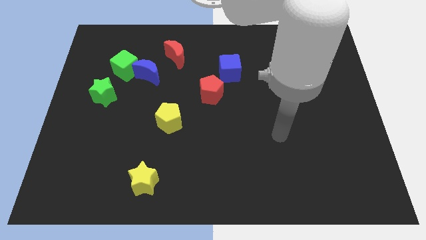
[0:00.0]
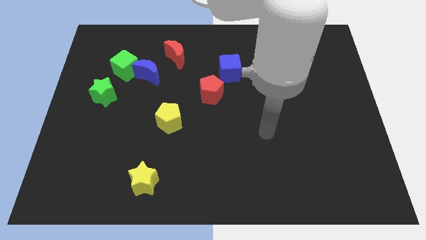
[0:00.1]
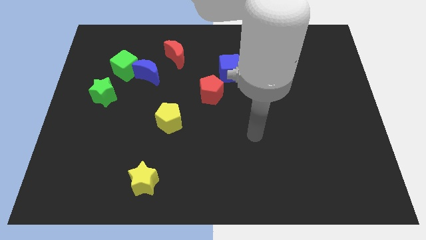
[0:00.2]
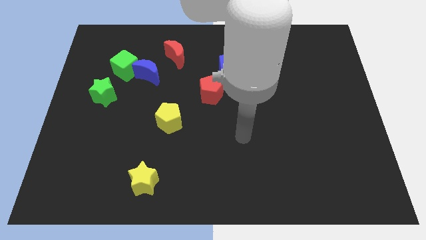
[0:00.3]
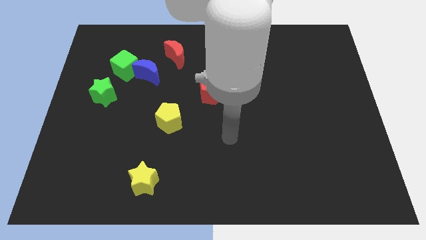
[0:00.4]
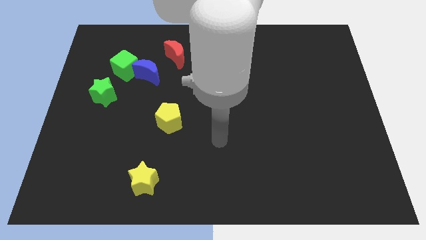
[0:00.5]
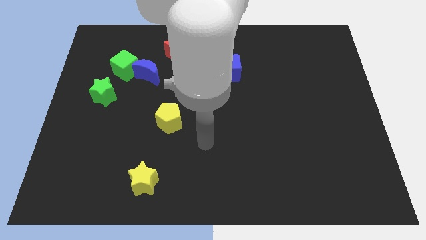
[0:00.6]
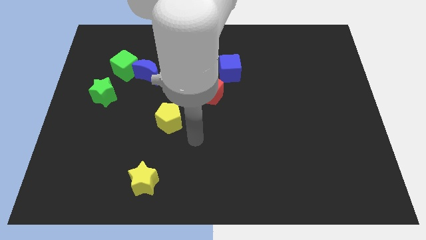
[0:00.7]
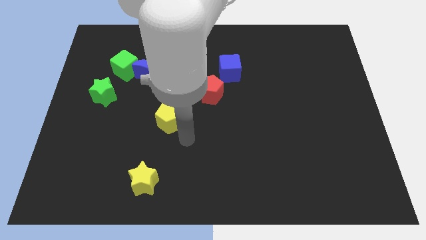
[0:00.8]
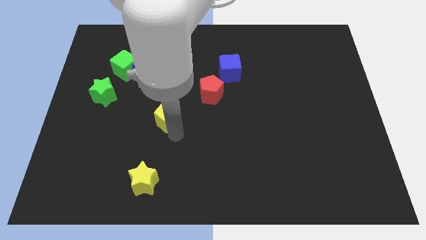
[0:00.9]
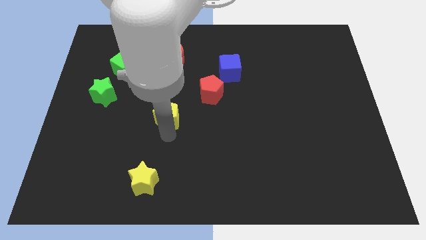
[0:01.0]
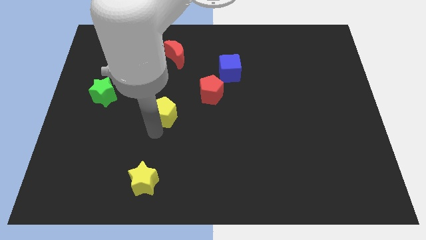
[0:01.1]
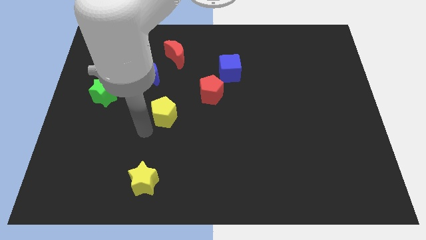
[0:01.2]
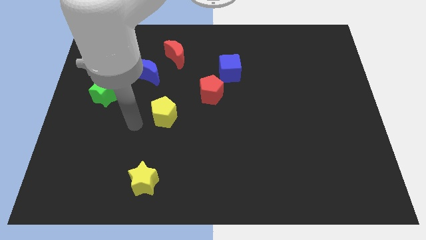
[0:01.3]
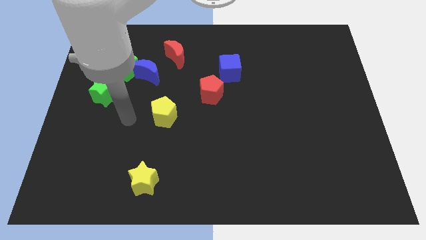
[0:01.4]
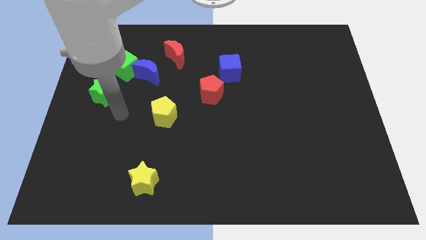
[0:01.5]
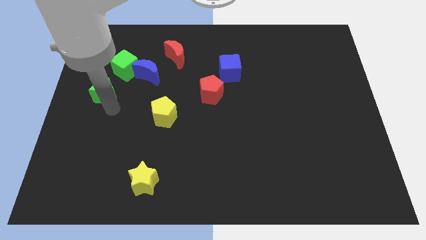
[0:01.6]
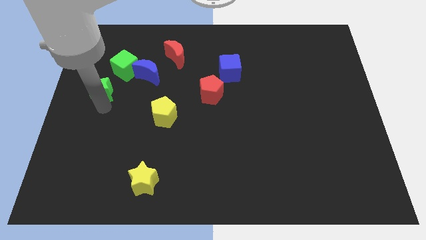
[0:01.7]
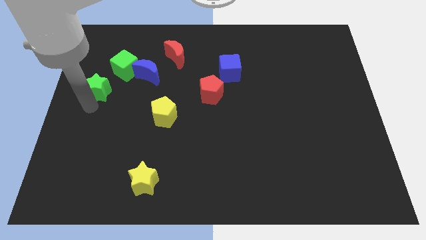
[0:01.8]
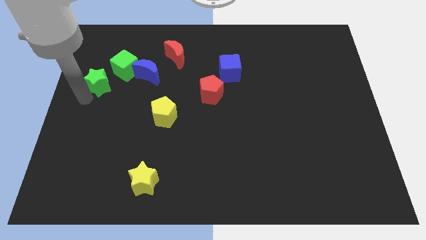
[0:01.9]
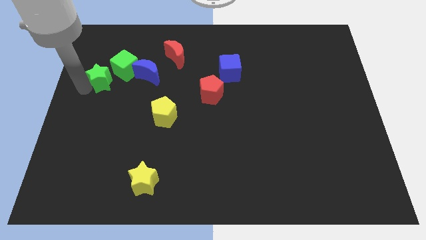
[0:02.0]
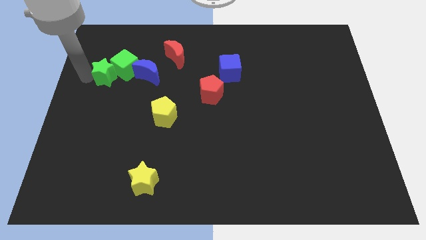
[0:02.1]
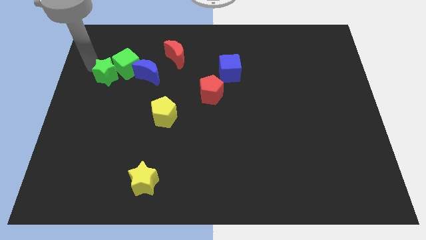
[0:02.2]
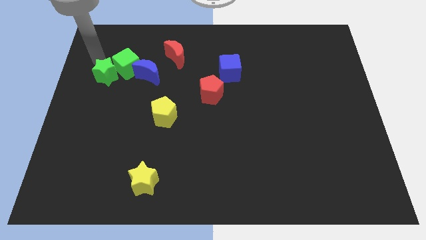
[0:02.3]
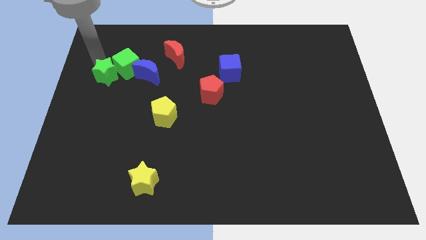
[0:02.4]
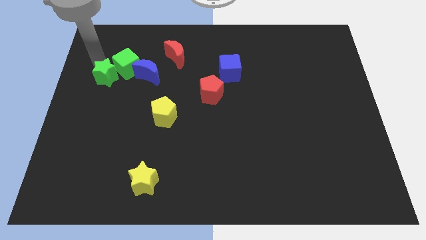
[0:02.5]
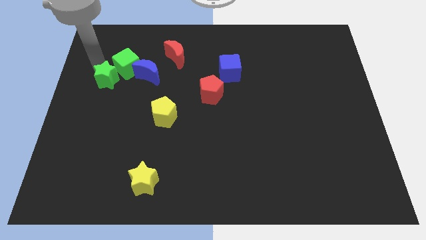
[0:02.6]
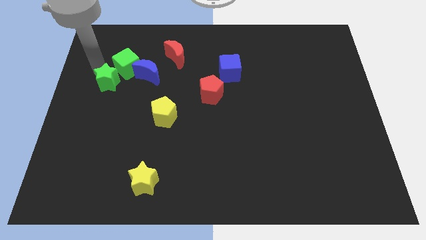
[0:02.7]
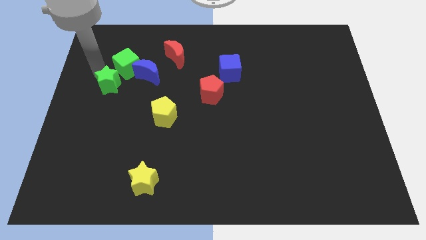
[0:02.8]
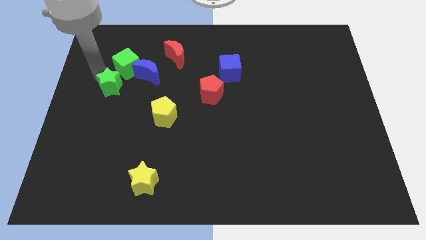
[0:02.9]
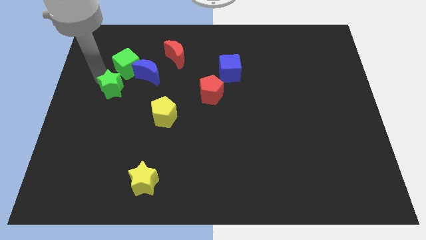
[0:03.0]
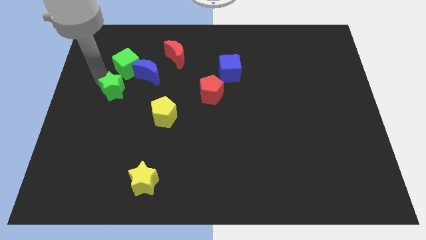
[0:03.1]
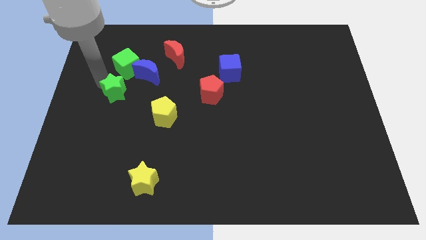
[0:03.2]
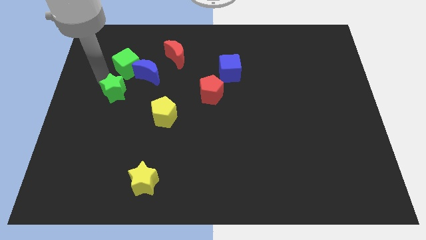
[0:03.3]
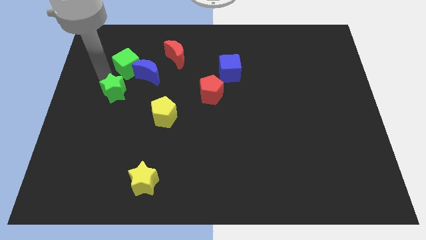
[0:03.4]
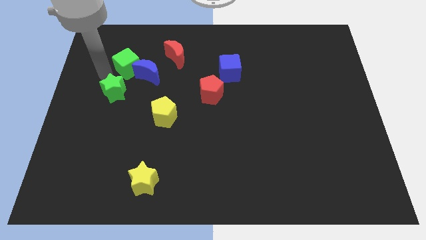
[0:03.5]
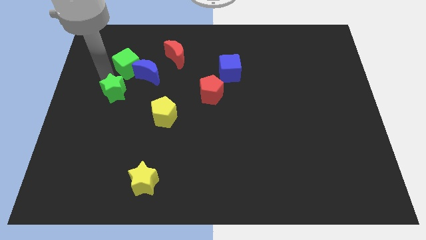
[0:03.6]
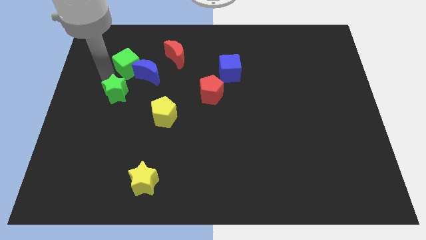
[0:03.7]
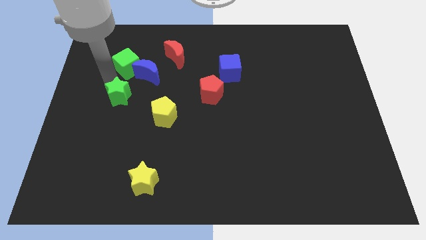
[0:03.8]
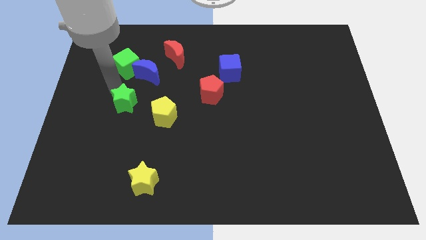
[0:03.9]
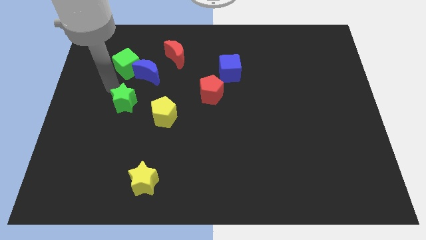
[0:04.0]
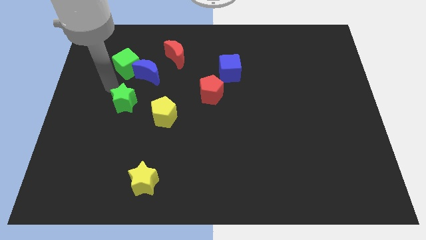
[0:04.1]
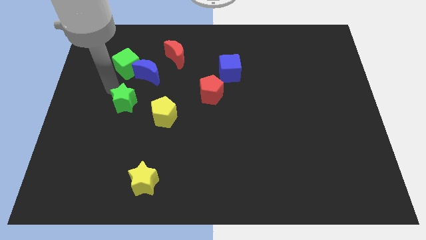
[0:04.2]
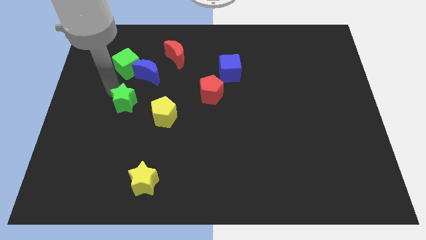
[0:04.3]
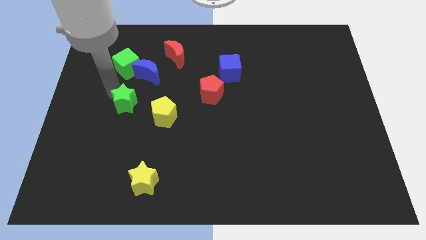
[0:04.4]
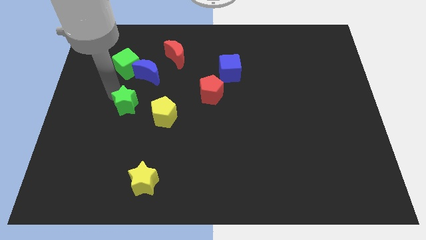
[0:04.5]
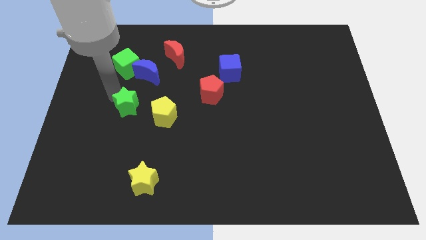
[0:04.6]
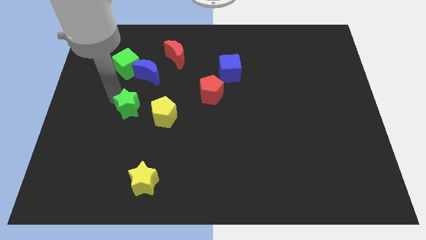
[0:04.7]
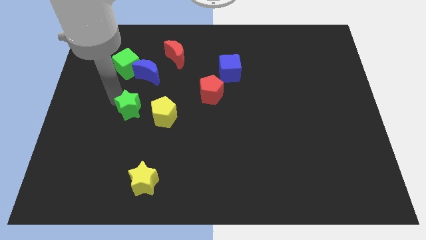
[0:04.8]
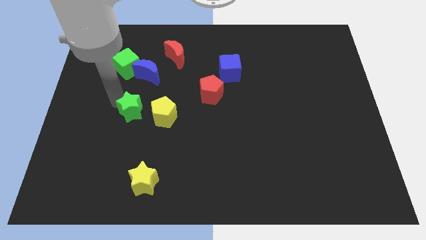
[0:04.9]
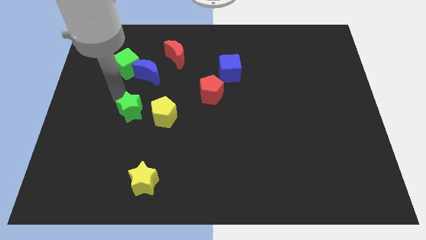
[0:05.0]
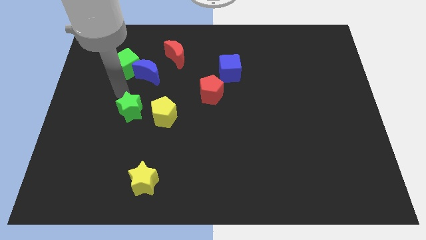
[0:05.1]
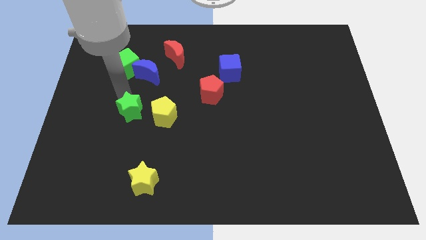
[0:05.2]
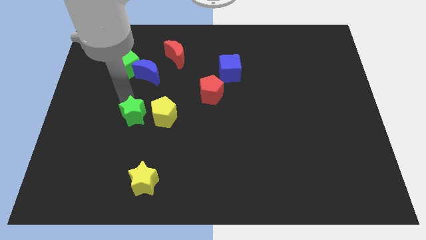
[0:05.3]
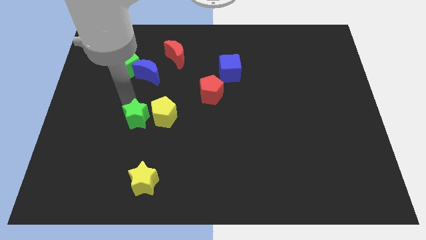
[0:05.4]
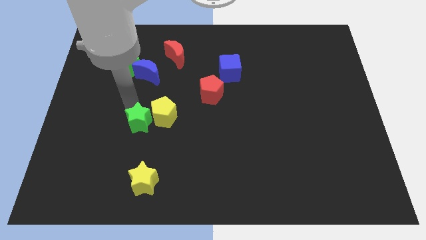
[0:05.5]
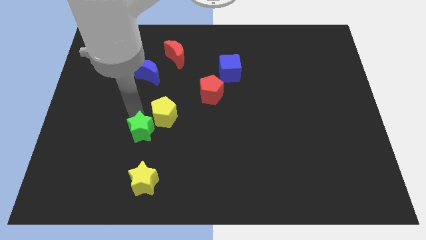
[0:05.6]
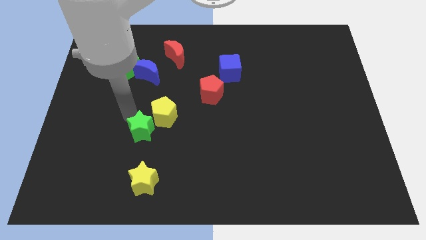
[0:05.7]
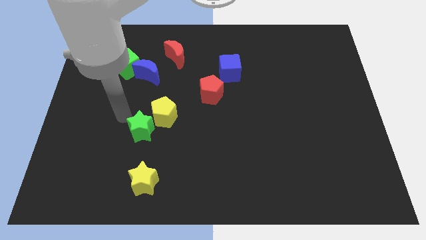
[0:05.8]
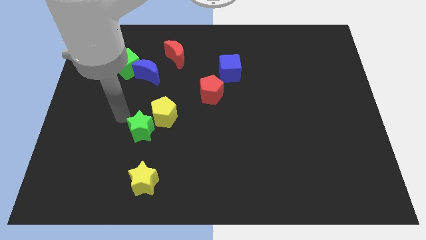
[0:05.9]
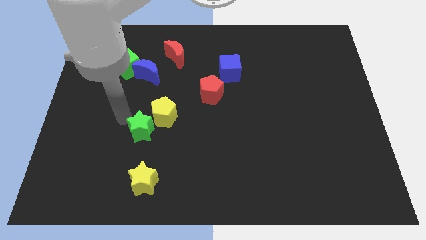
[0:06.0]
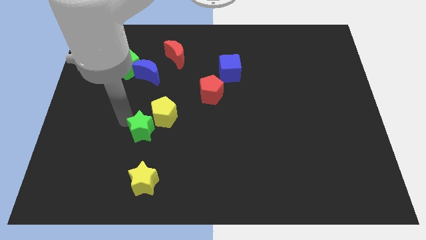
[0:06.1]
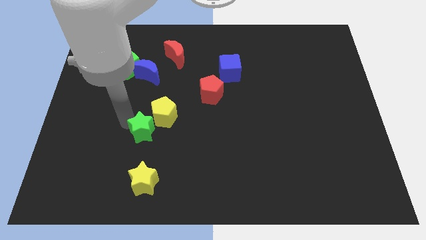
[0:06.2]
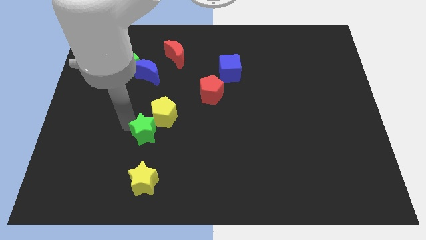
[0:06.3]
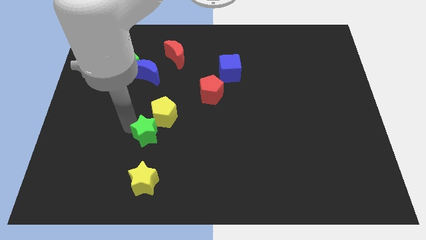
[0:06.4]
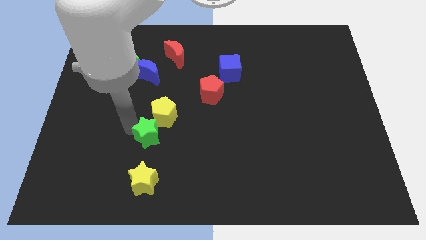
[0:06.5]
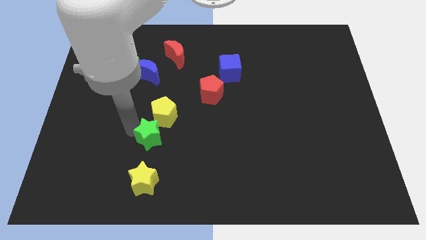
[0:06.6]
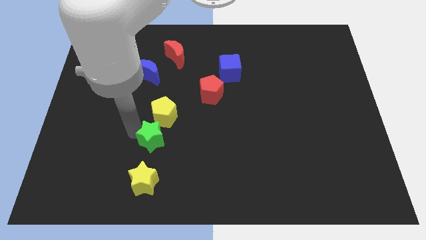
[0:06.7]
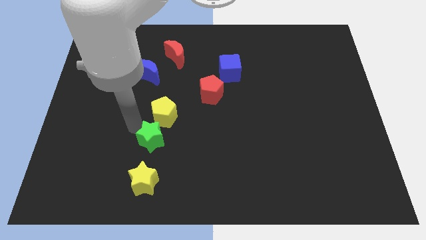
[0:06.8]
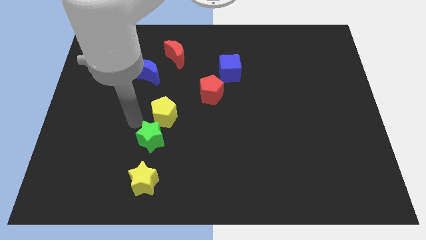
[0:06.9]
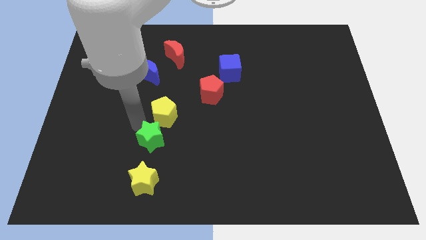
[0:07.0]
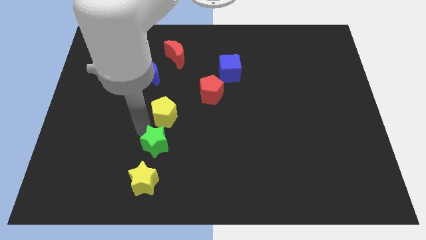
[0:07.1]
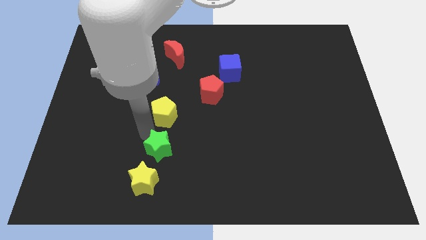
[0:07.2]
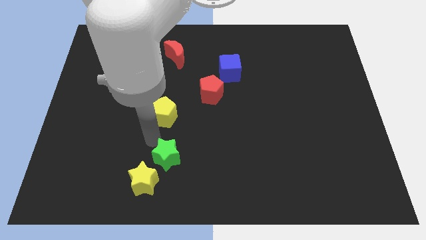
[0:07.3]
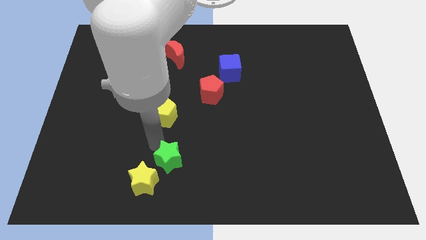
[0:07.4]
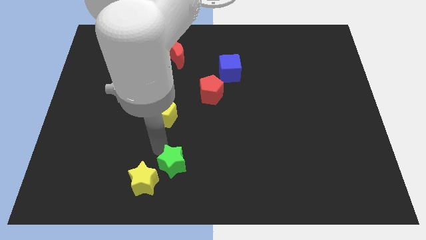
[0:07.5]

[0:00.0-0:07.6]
move the green star to the right side of the yellow star
